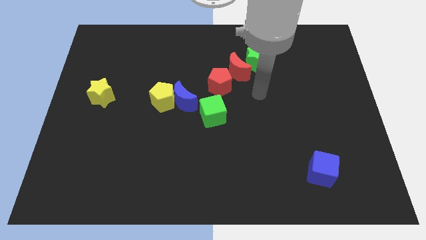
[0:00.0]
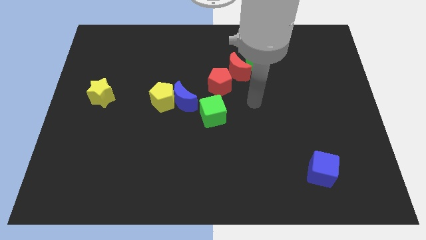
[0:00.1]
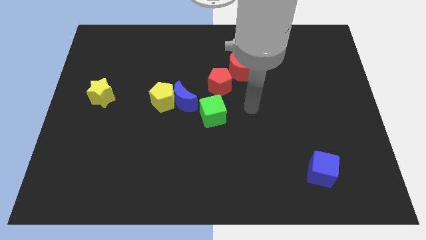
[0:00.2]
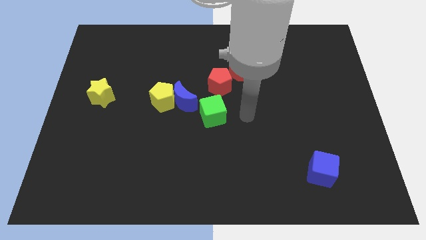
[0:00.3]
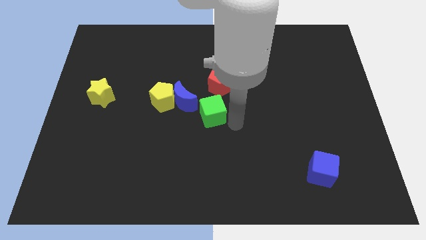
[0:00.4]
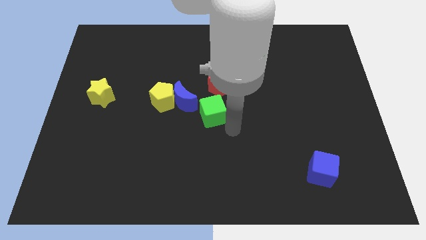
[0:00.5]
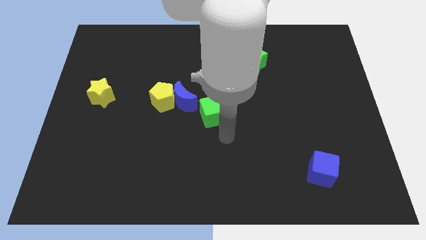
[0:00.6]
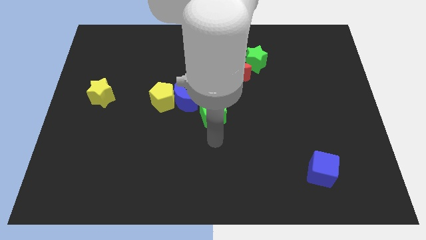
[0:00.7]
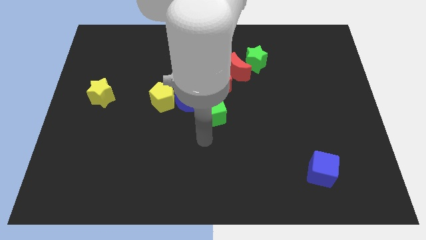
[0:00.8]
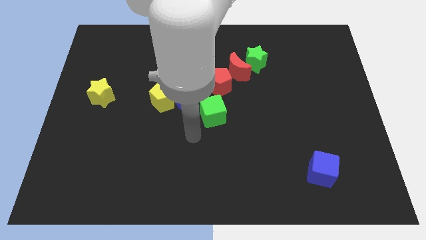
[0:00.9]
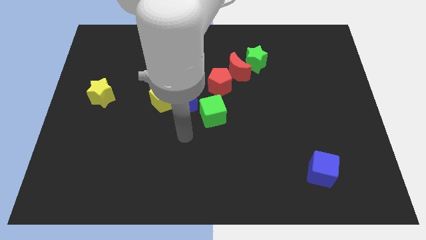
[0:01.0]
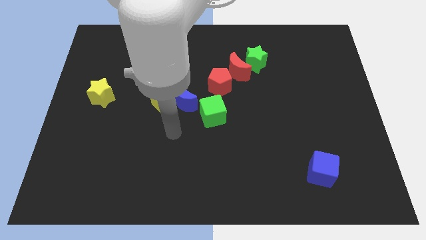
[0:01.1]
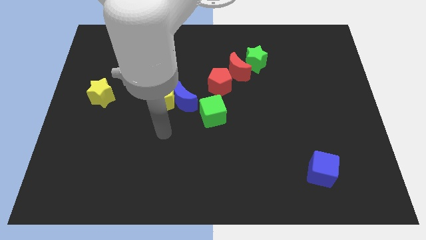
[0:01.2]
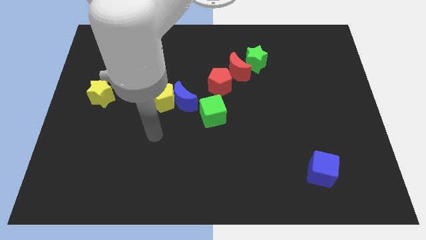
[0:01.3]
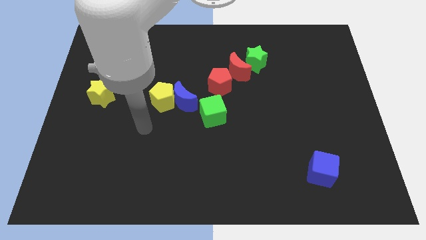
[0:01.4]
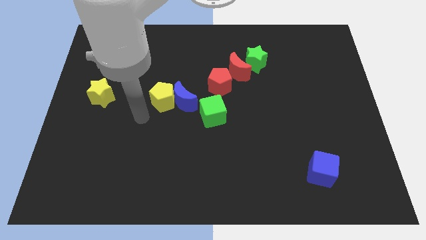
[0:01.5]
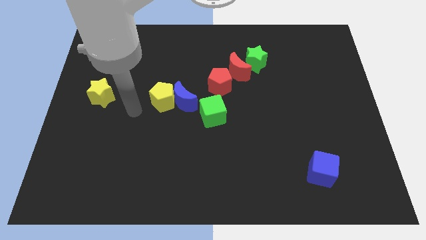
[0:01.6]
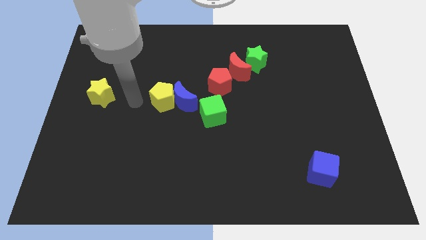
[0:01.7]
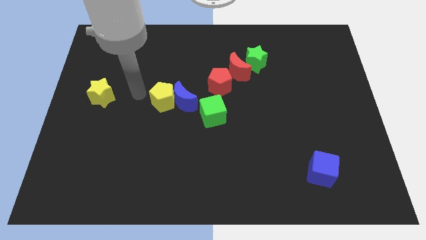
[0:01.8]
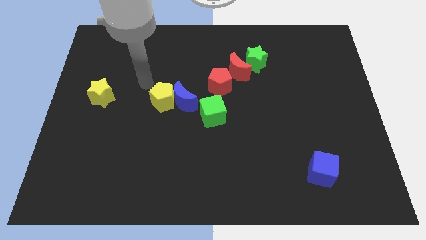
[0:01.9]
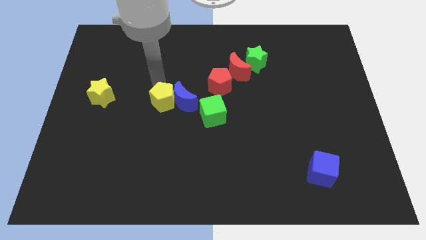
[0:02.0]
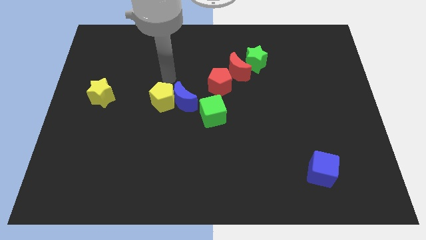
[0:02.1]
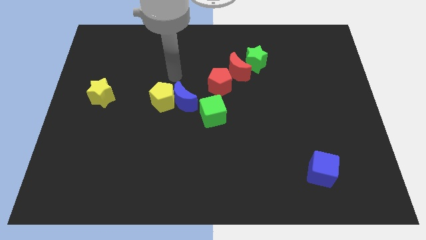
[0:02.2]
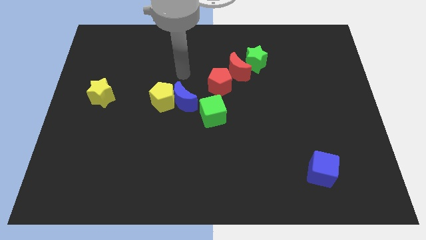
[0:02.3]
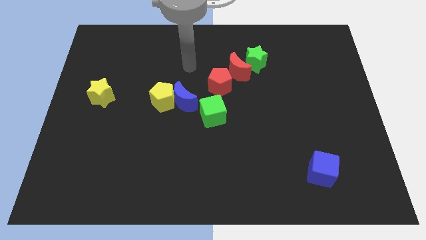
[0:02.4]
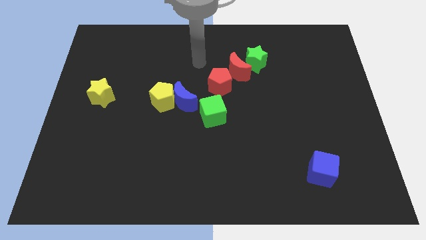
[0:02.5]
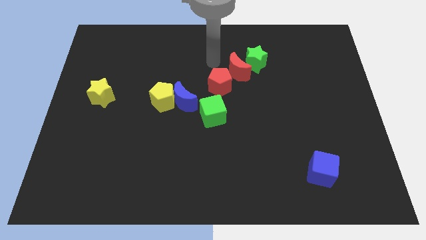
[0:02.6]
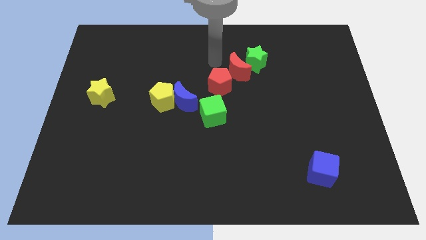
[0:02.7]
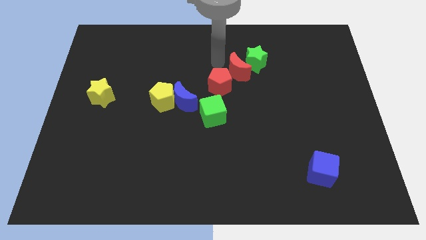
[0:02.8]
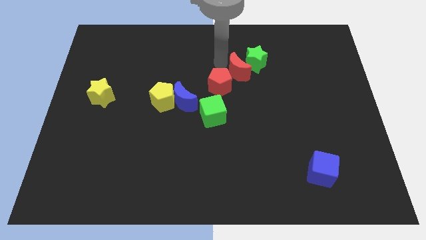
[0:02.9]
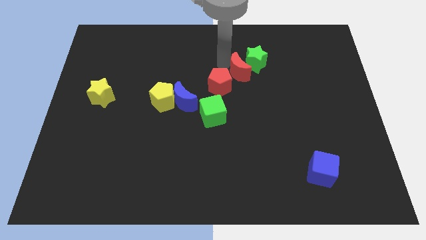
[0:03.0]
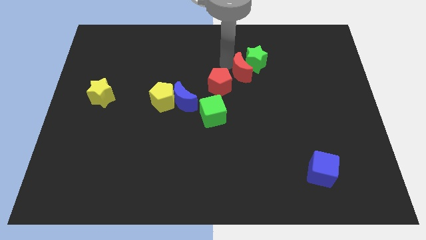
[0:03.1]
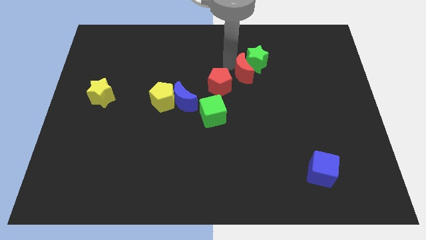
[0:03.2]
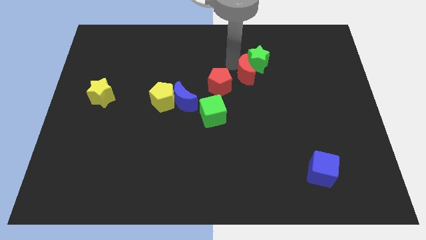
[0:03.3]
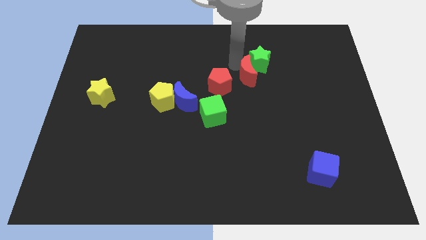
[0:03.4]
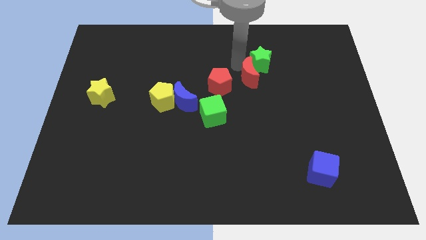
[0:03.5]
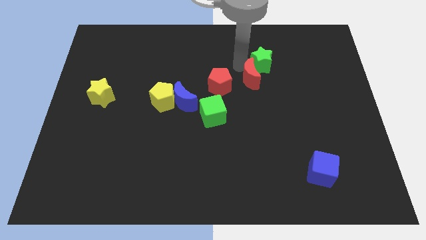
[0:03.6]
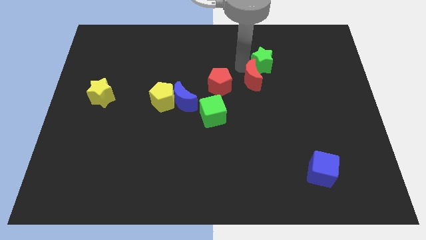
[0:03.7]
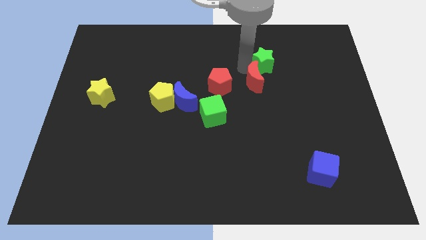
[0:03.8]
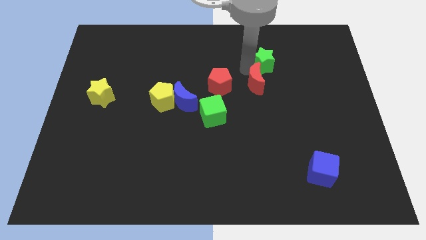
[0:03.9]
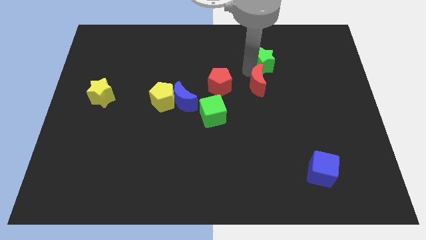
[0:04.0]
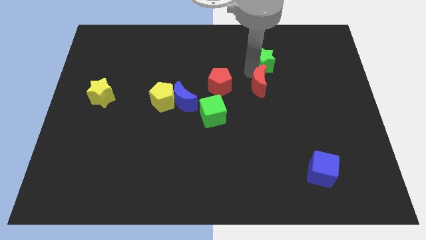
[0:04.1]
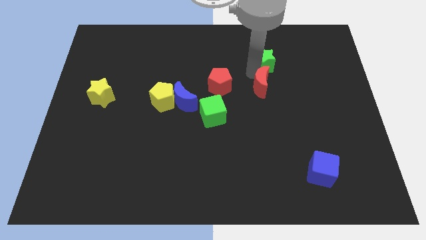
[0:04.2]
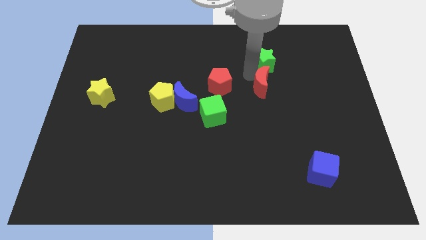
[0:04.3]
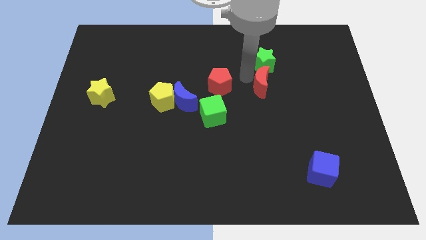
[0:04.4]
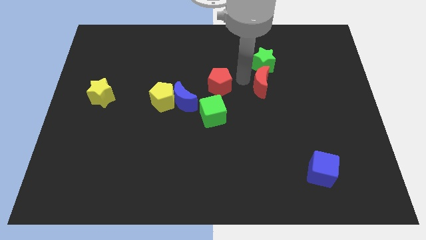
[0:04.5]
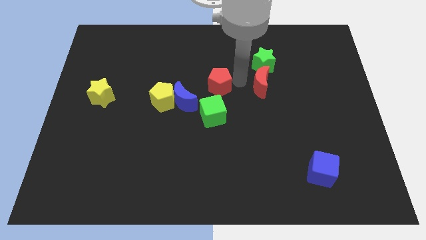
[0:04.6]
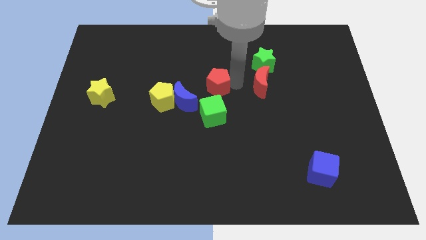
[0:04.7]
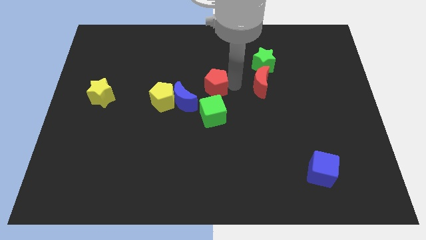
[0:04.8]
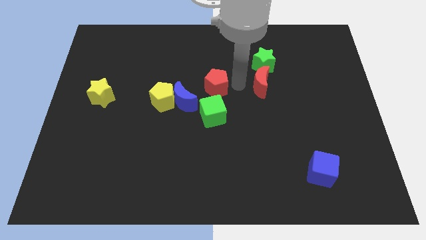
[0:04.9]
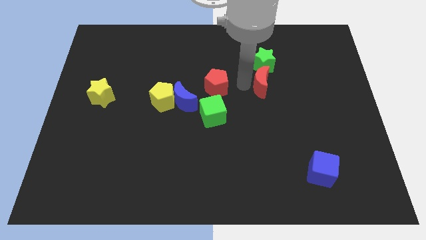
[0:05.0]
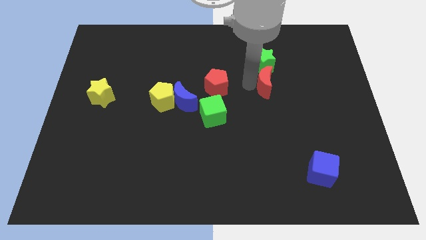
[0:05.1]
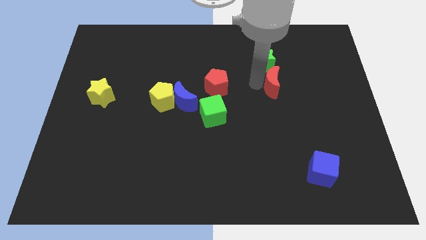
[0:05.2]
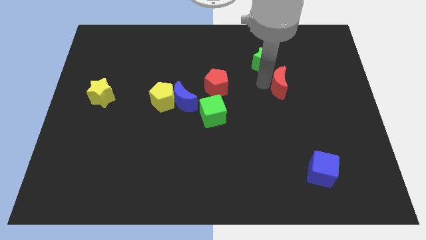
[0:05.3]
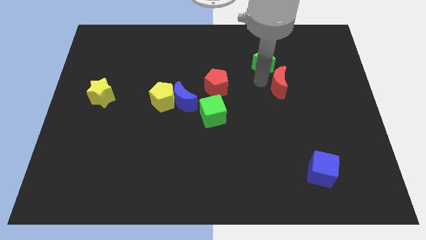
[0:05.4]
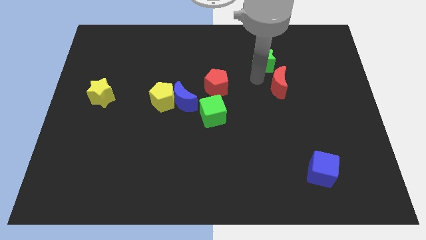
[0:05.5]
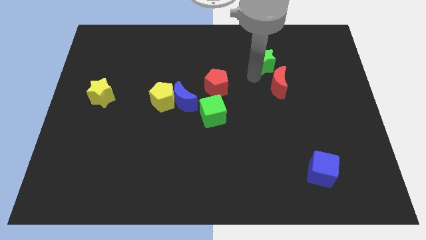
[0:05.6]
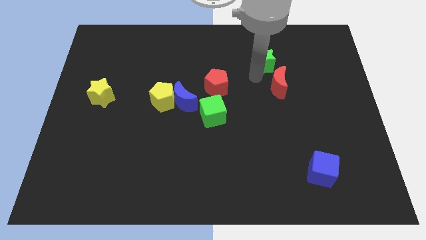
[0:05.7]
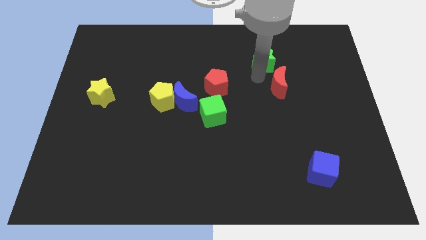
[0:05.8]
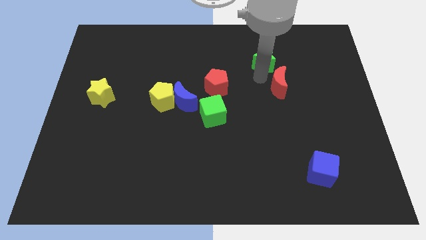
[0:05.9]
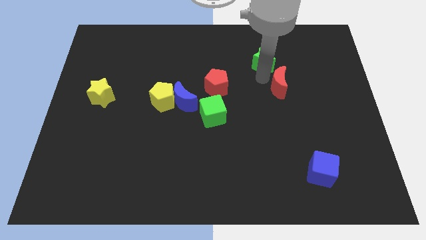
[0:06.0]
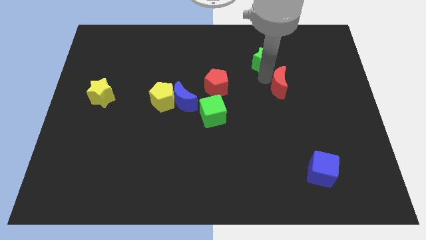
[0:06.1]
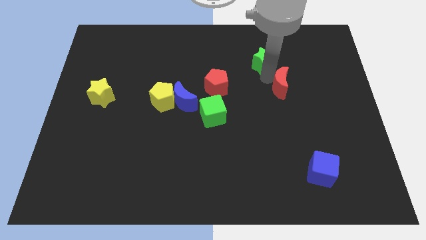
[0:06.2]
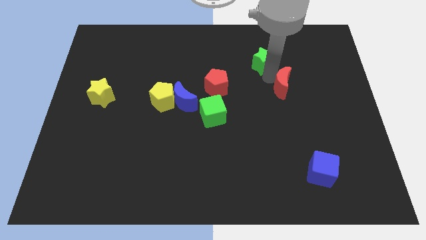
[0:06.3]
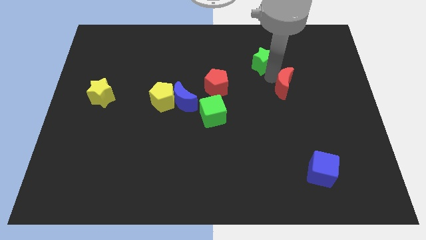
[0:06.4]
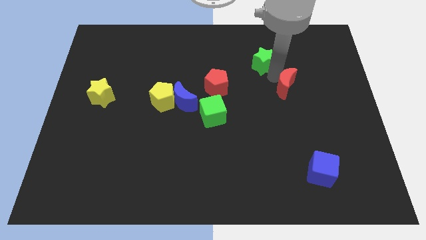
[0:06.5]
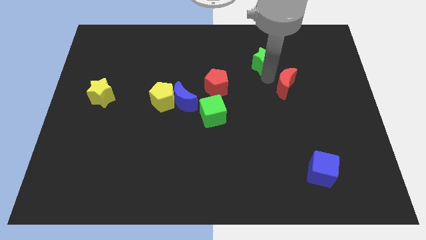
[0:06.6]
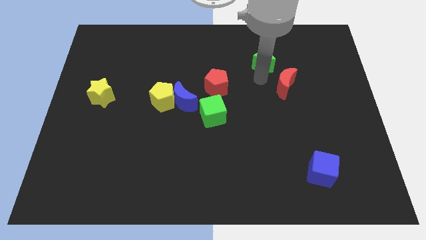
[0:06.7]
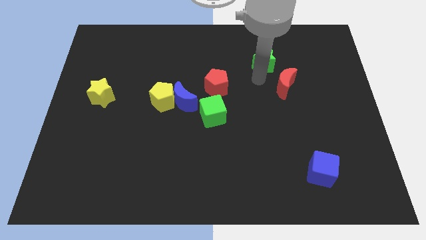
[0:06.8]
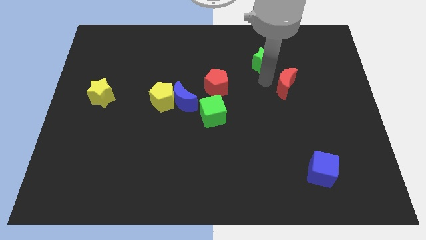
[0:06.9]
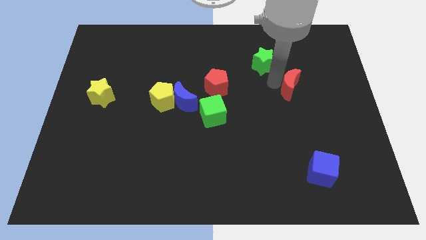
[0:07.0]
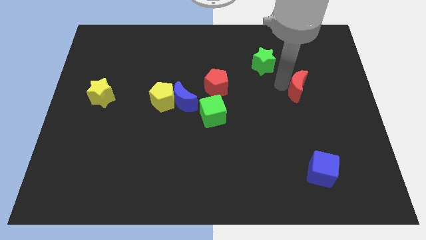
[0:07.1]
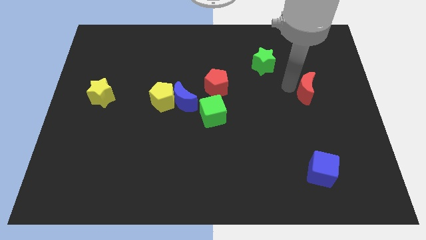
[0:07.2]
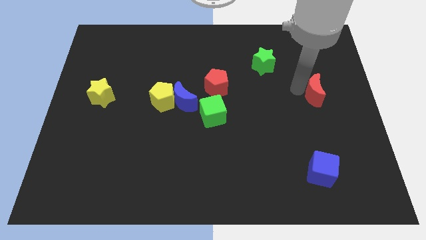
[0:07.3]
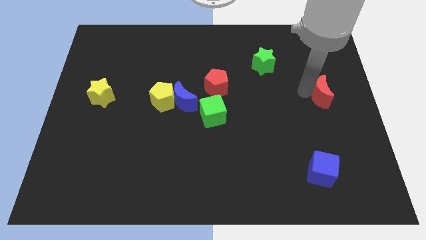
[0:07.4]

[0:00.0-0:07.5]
push the red moon to the center right
